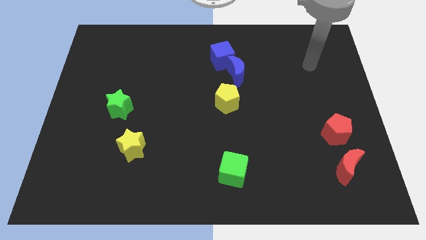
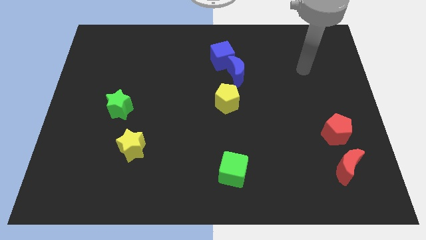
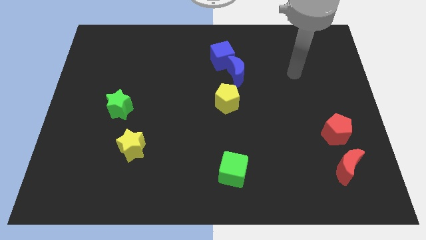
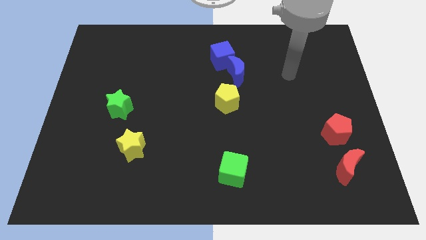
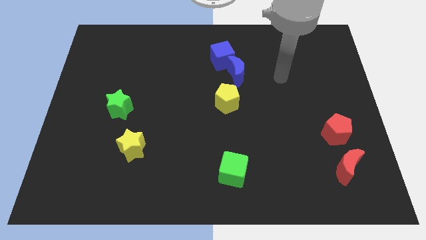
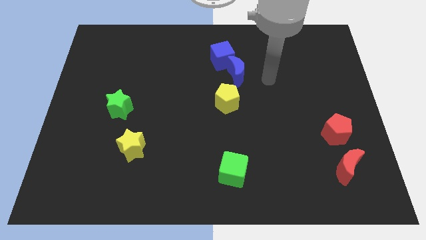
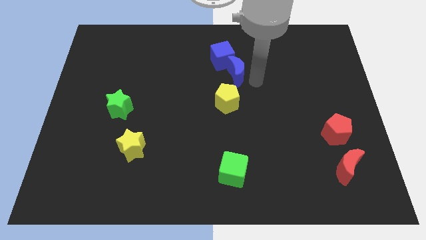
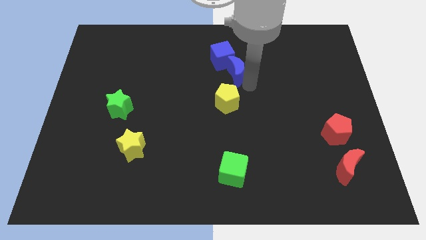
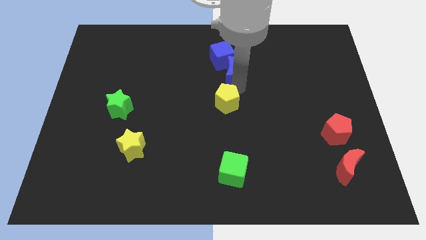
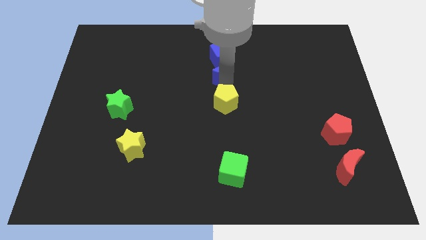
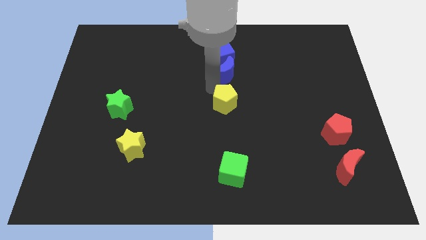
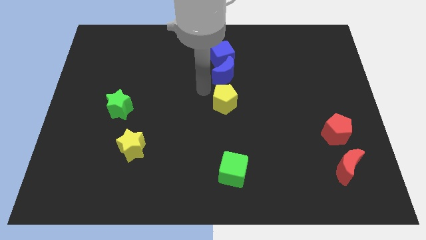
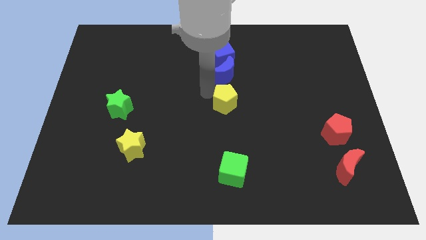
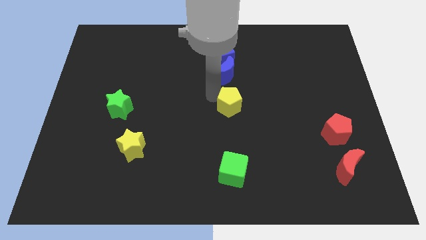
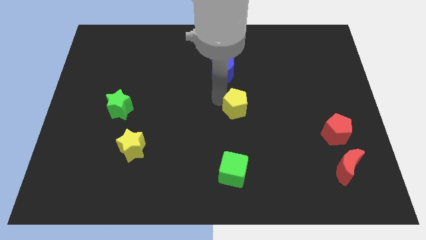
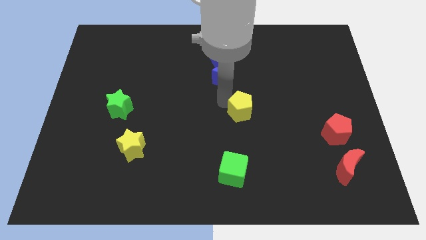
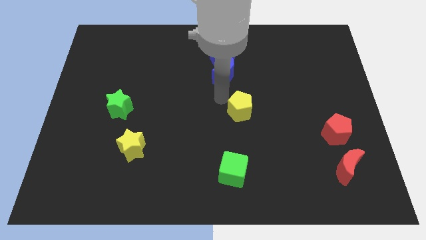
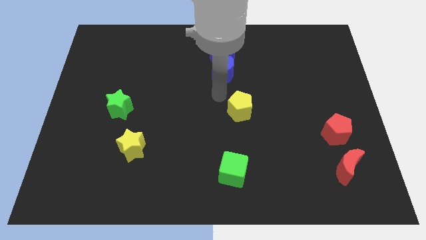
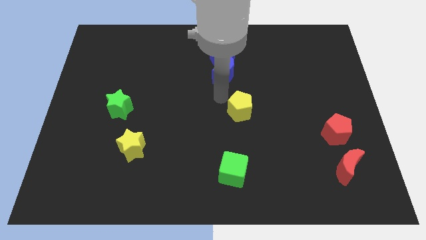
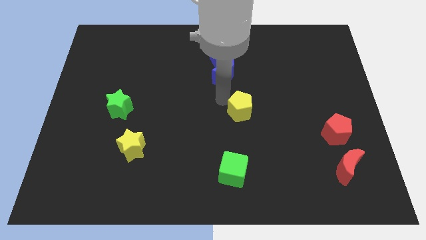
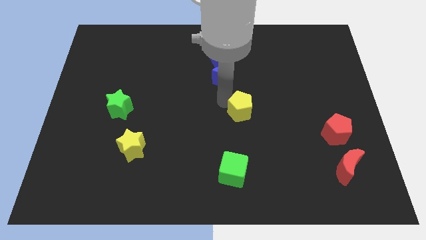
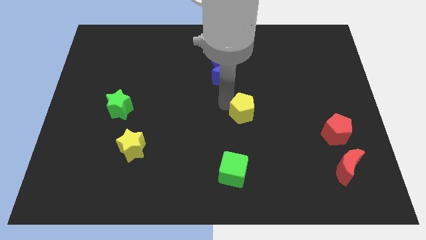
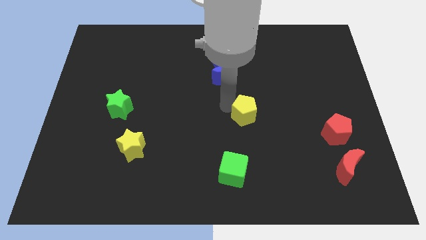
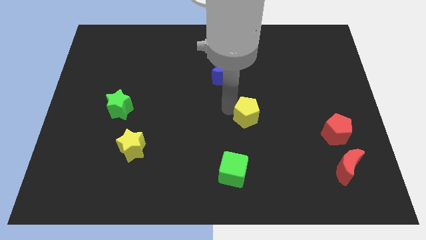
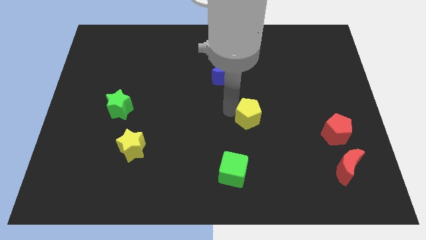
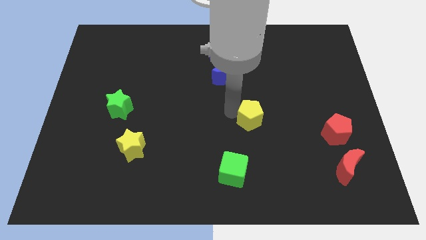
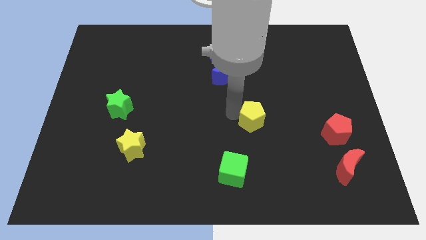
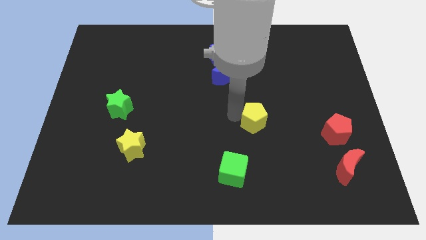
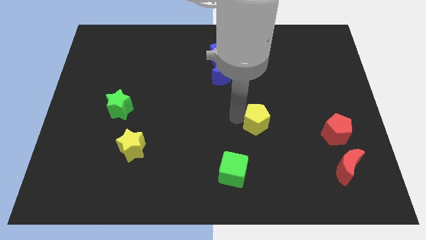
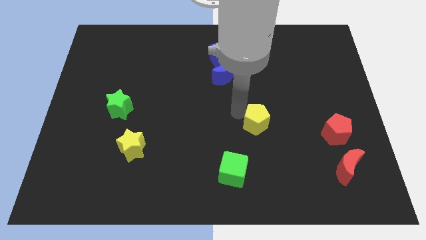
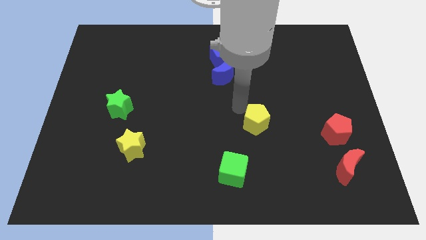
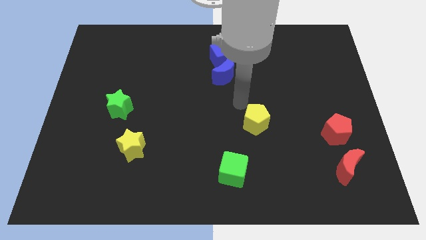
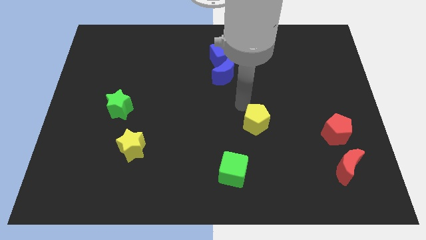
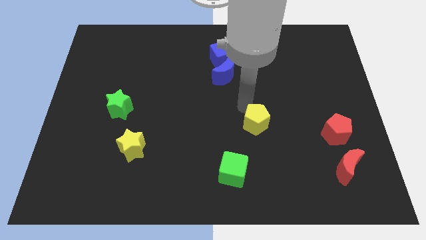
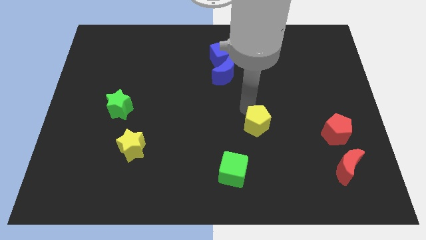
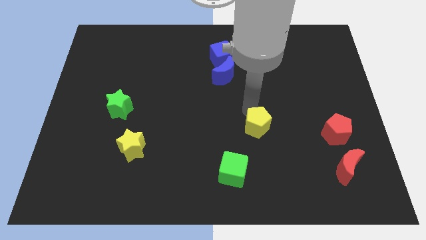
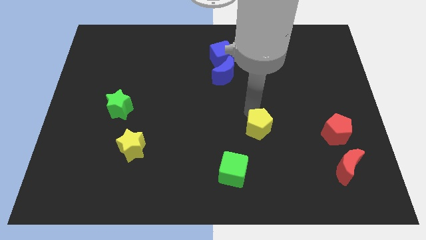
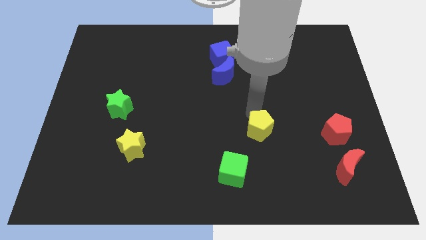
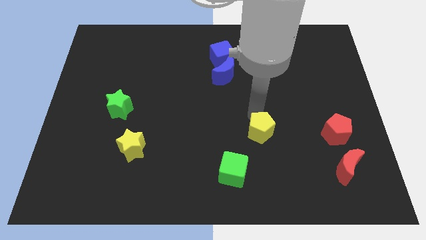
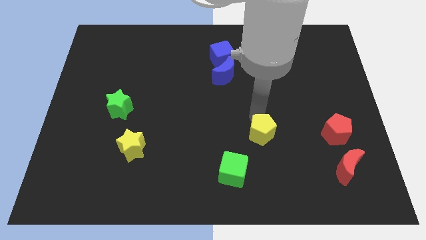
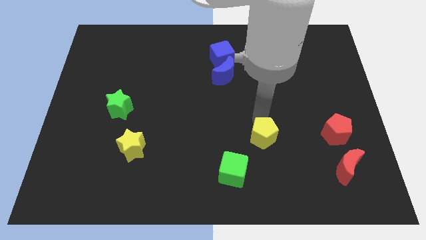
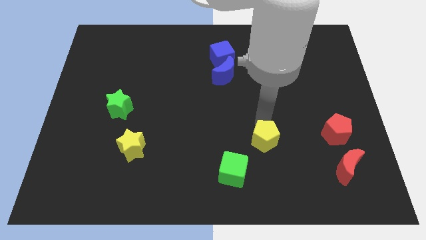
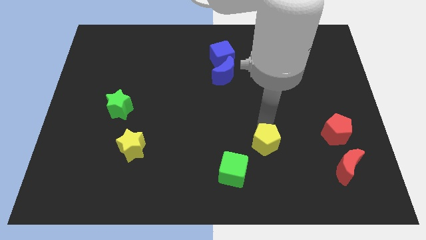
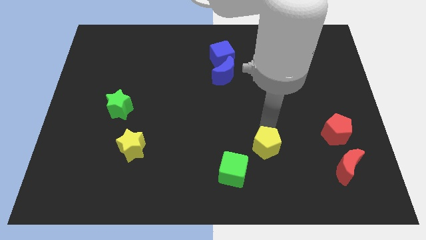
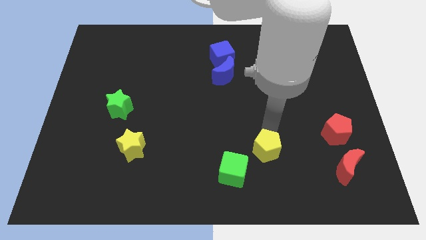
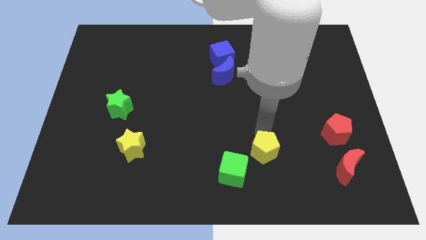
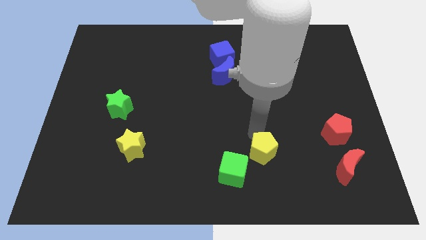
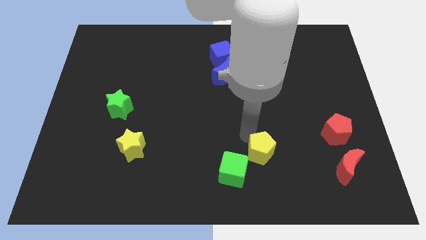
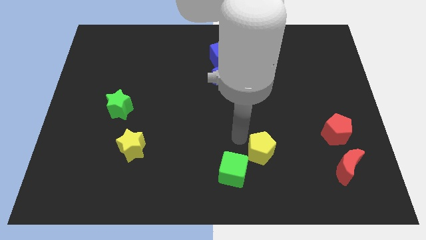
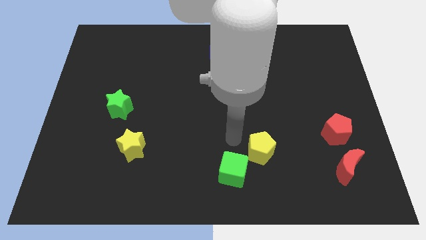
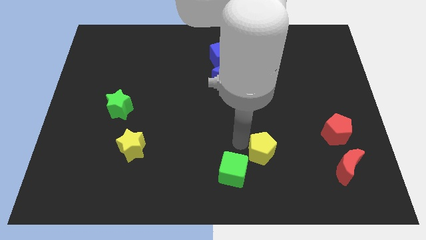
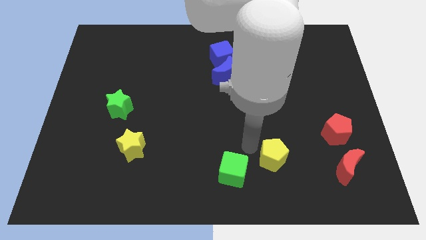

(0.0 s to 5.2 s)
put the yellow pentagon to the left of the red moon

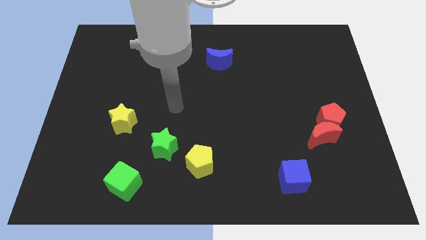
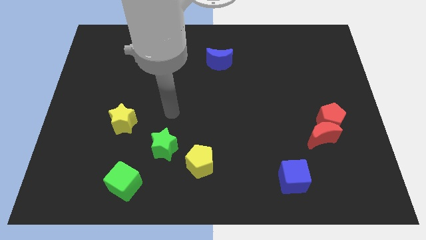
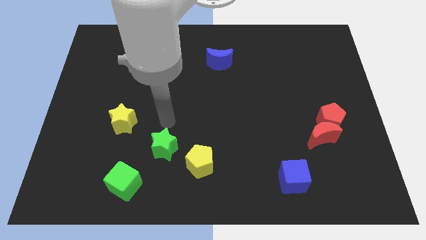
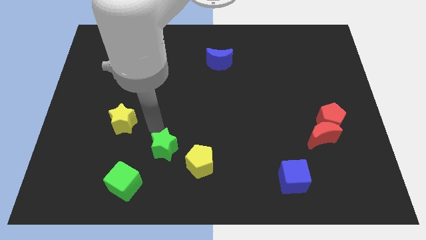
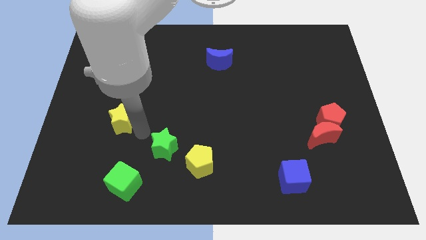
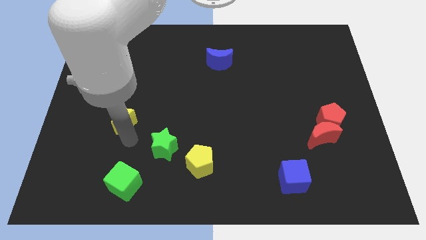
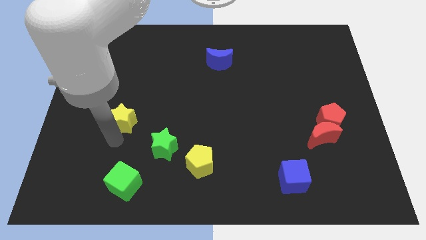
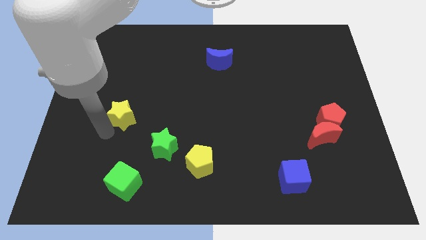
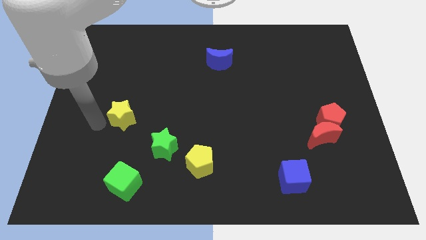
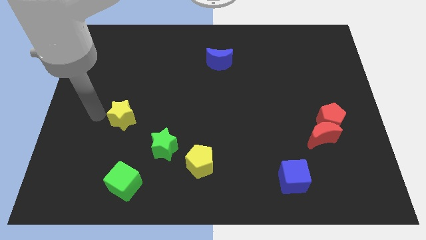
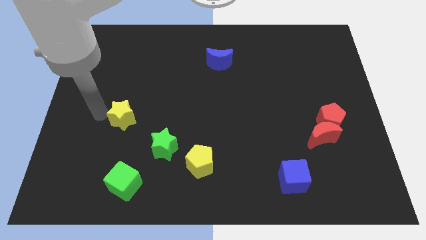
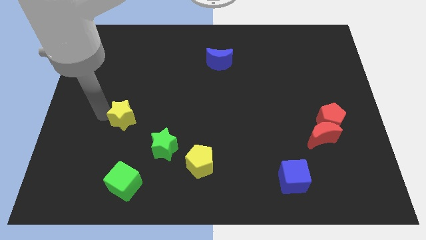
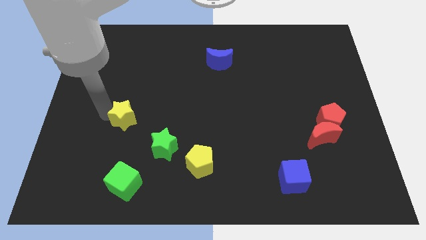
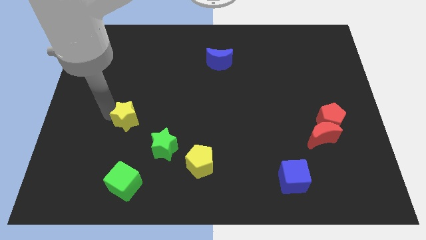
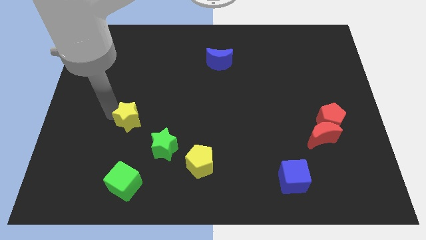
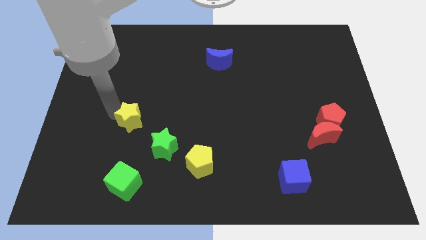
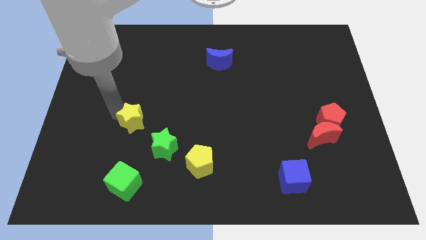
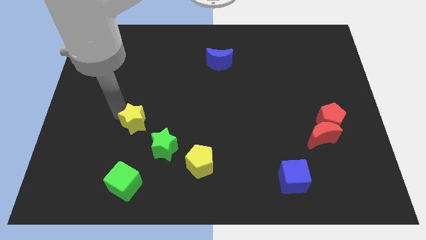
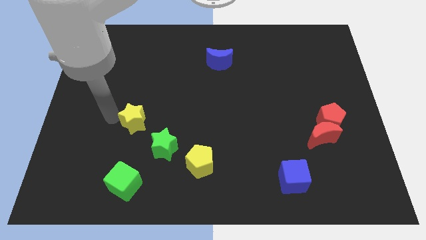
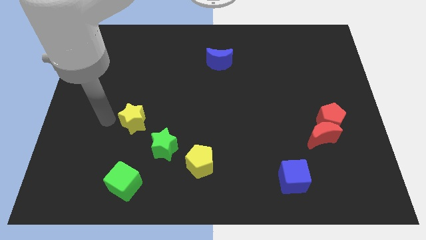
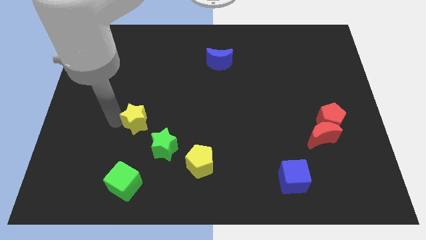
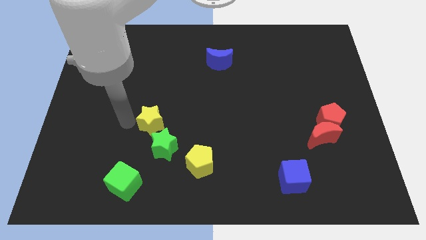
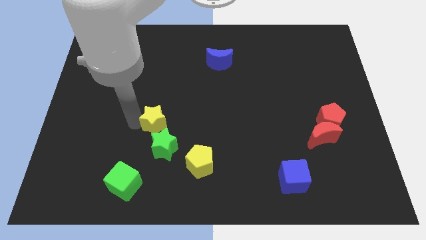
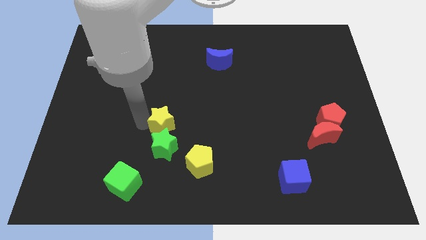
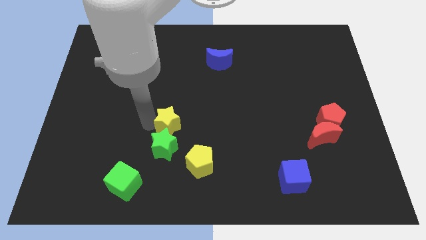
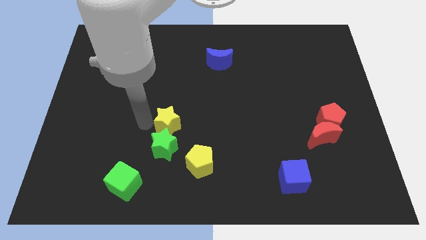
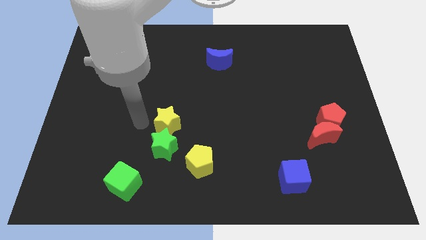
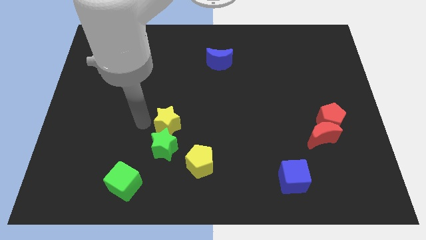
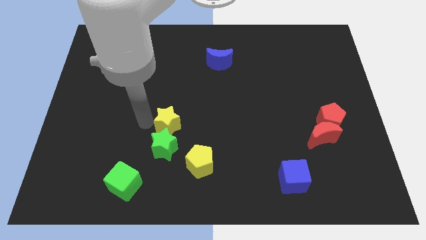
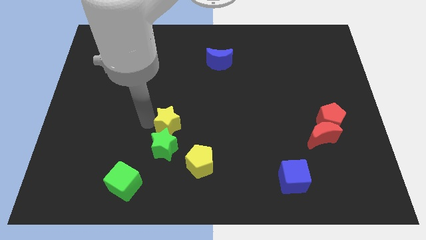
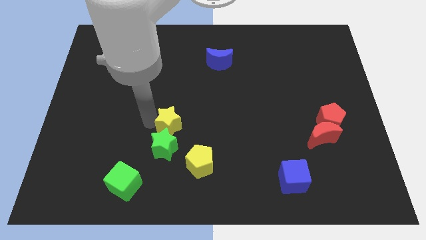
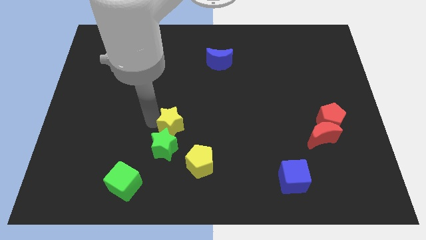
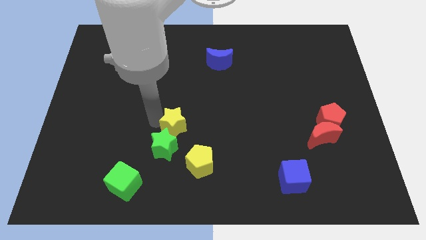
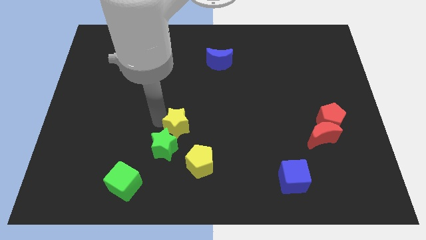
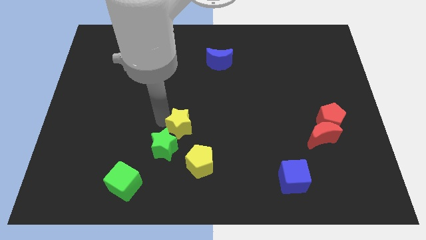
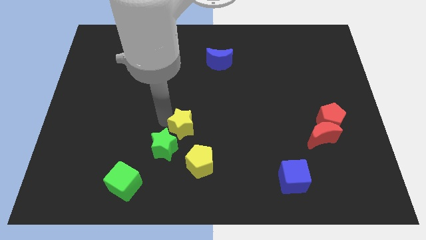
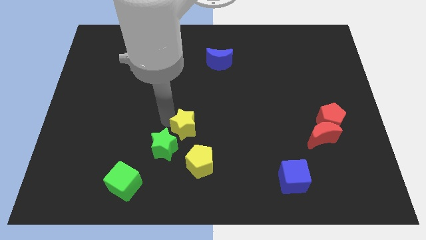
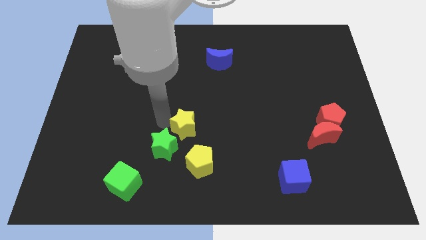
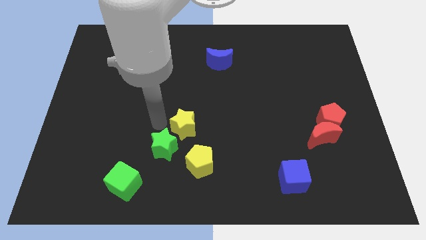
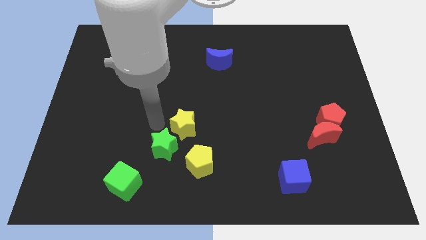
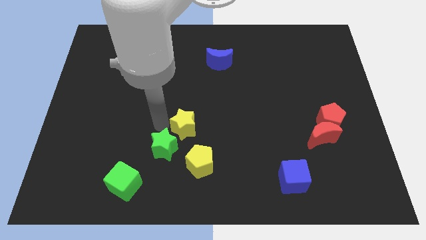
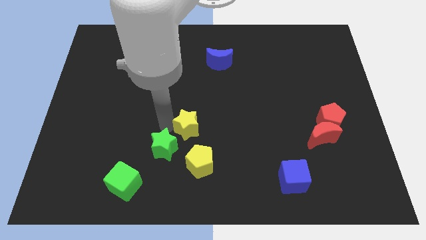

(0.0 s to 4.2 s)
put the yellow star just right of the green star
